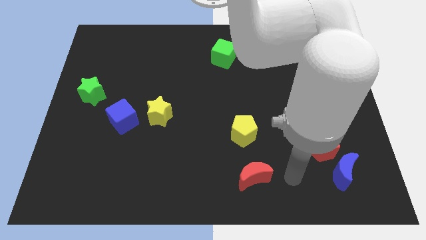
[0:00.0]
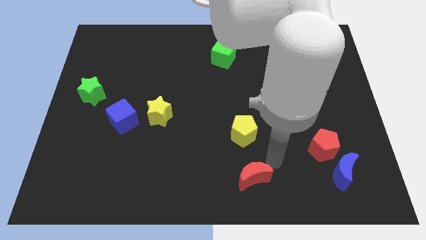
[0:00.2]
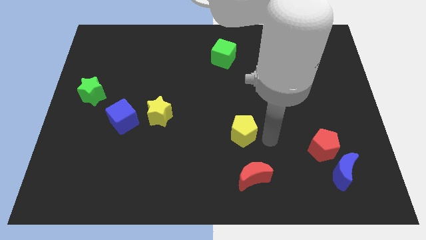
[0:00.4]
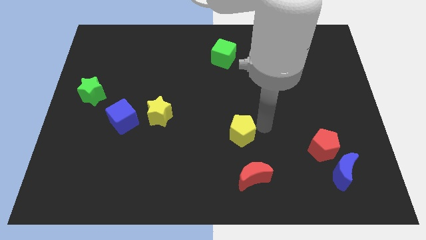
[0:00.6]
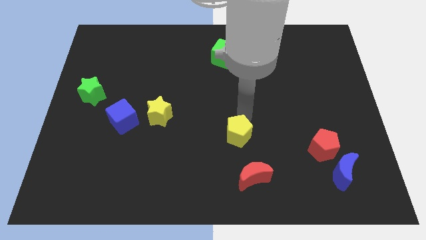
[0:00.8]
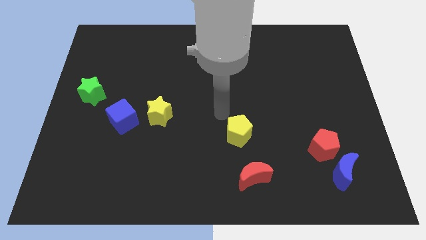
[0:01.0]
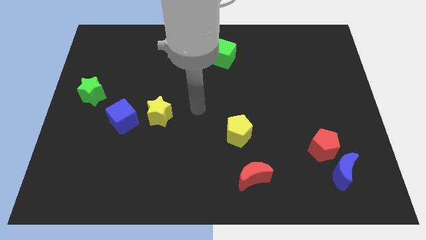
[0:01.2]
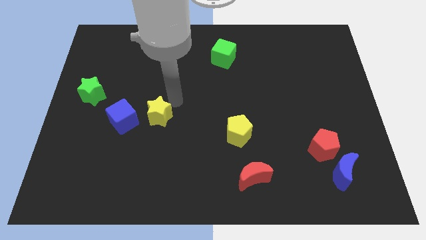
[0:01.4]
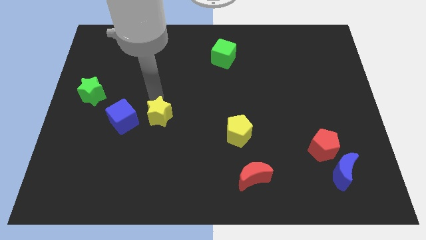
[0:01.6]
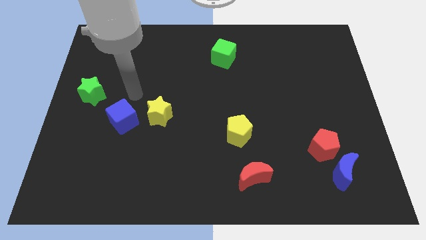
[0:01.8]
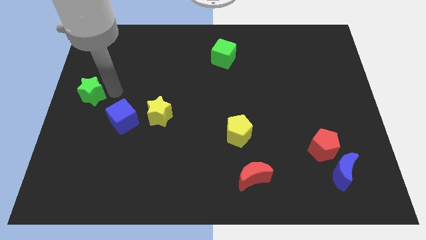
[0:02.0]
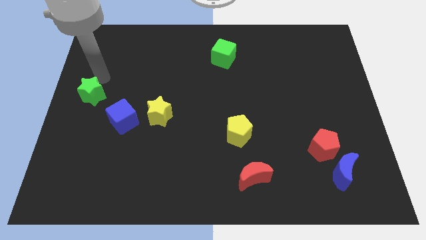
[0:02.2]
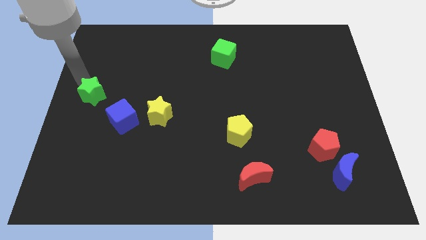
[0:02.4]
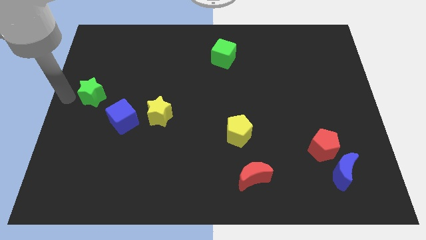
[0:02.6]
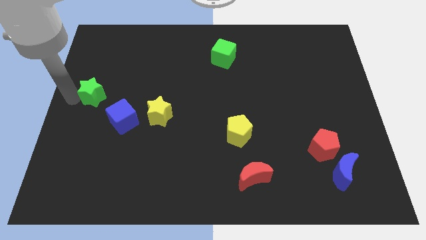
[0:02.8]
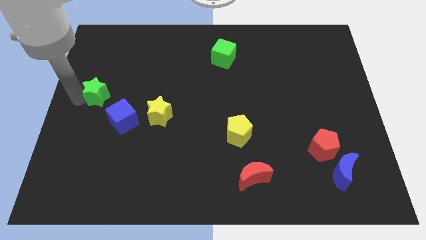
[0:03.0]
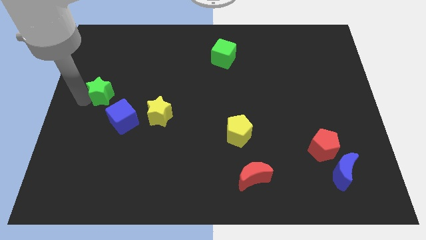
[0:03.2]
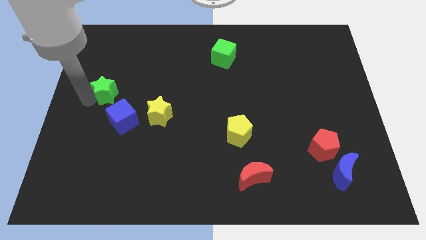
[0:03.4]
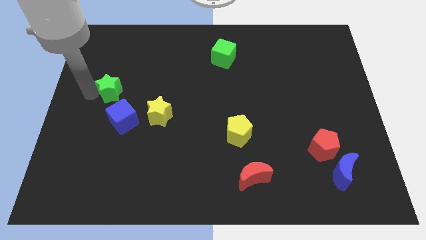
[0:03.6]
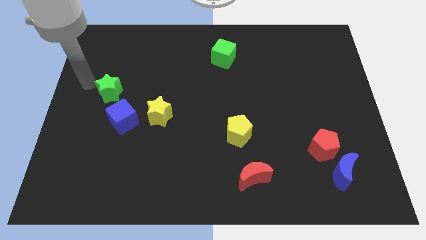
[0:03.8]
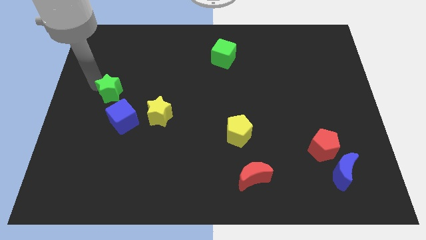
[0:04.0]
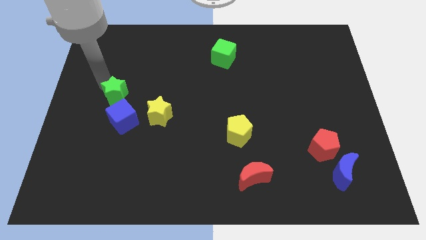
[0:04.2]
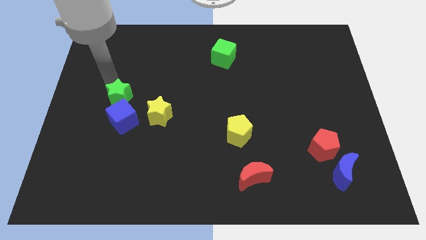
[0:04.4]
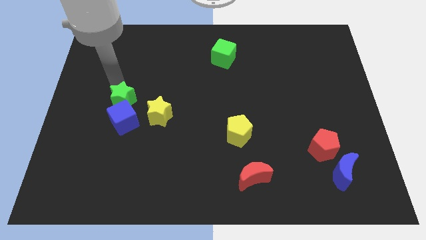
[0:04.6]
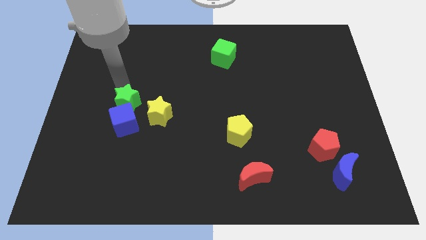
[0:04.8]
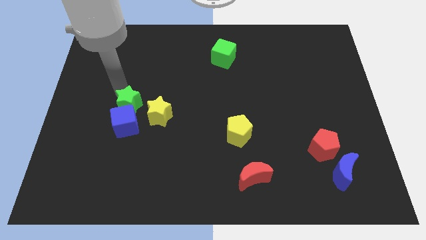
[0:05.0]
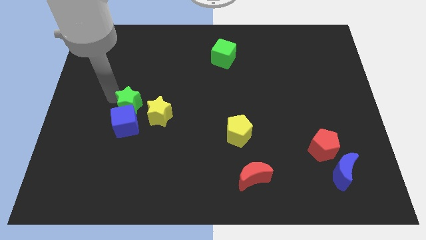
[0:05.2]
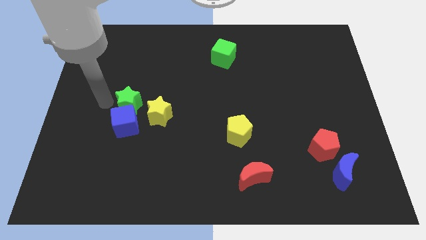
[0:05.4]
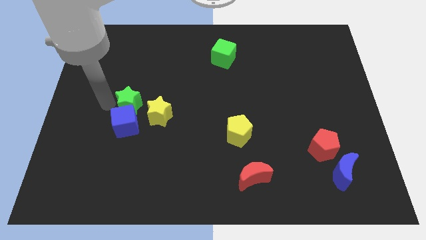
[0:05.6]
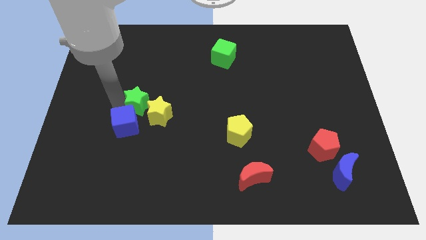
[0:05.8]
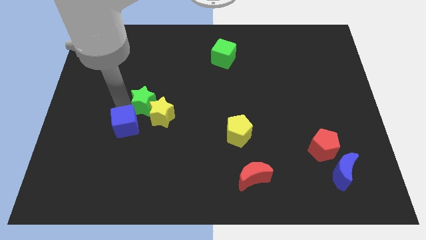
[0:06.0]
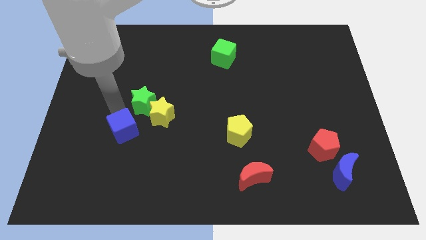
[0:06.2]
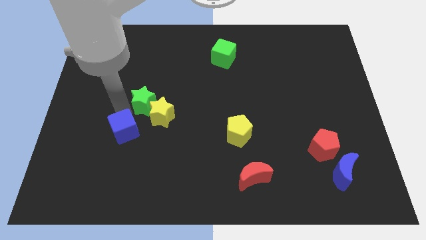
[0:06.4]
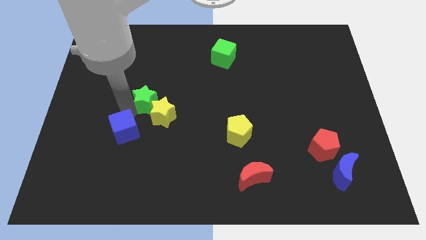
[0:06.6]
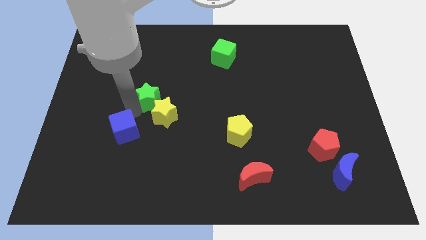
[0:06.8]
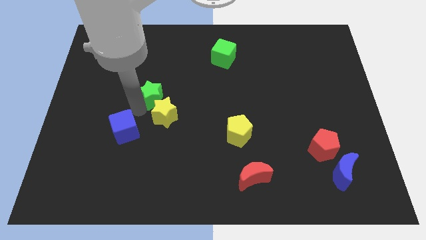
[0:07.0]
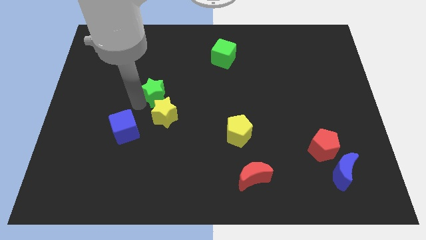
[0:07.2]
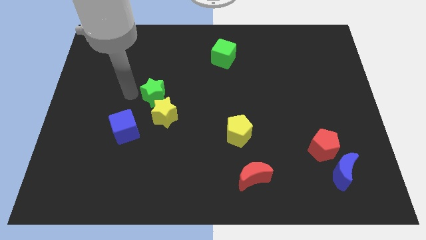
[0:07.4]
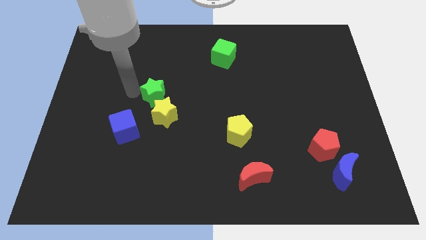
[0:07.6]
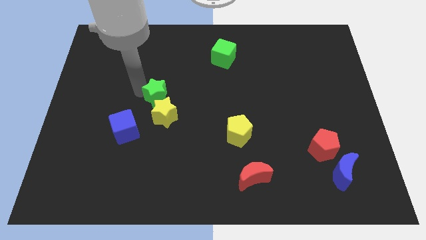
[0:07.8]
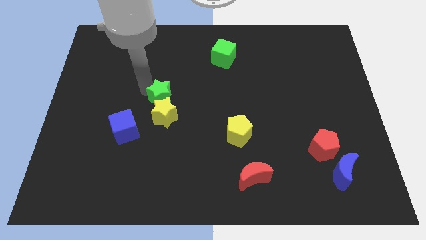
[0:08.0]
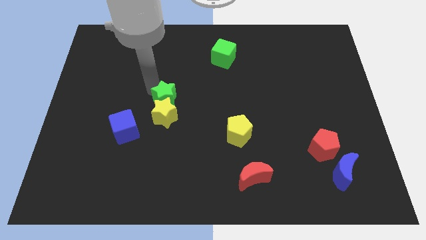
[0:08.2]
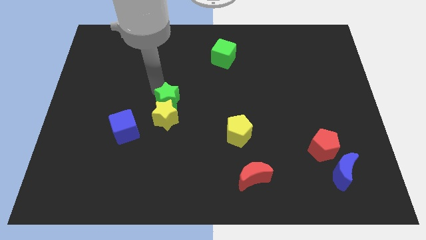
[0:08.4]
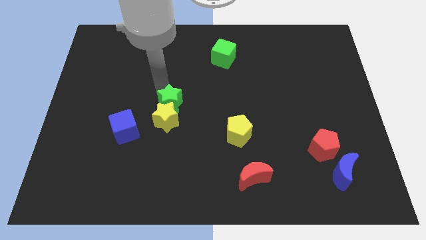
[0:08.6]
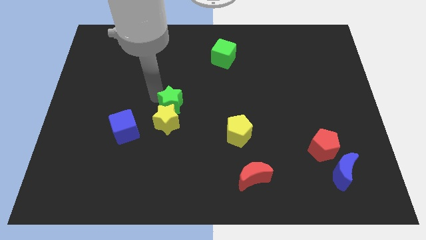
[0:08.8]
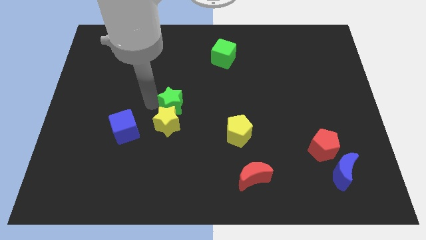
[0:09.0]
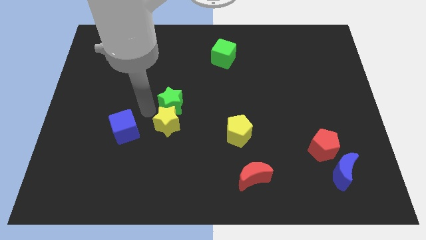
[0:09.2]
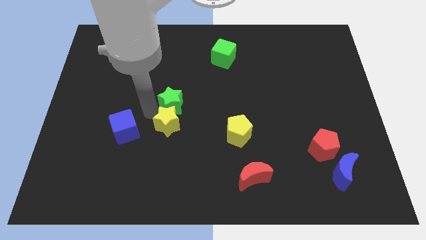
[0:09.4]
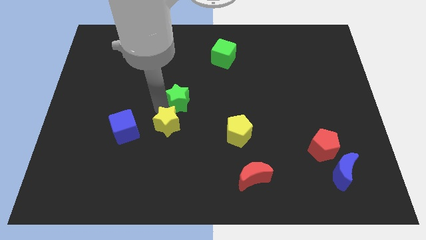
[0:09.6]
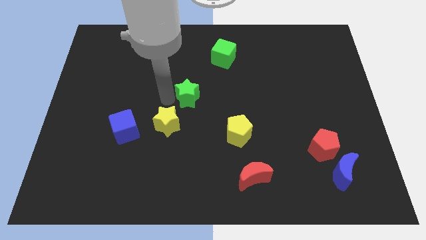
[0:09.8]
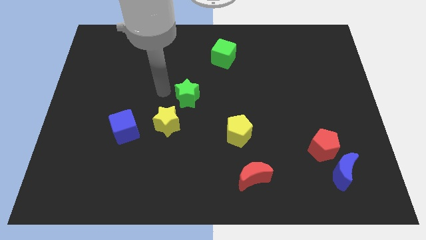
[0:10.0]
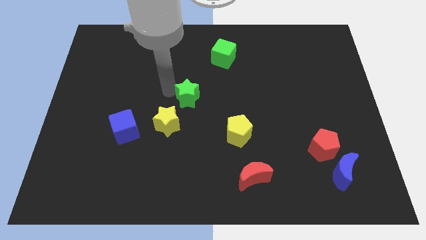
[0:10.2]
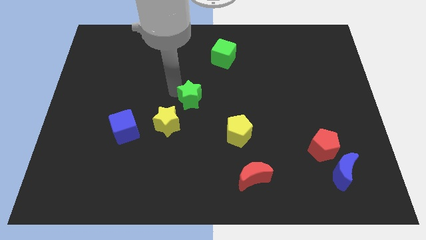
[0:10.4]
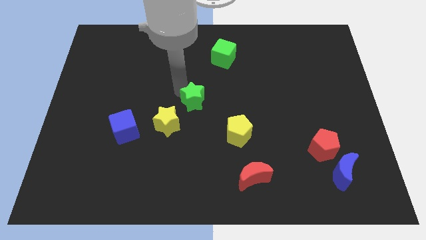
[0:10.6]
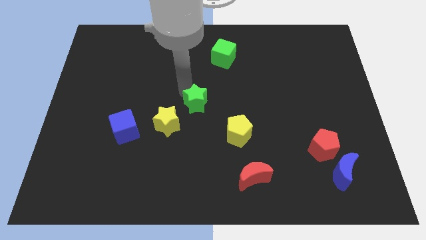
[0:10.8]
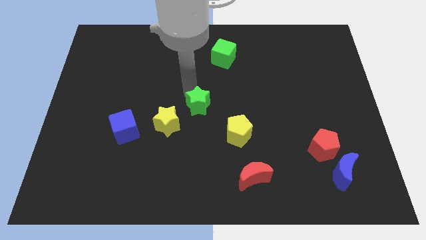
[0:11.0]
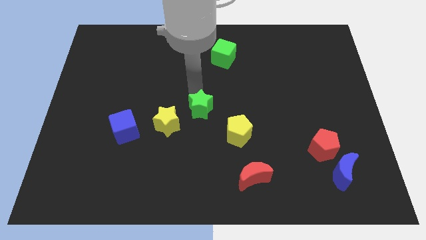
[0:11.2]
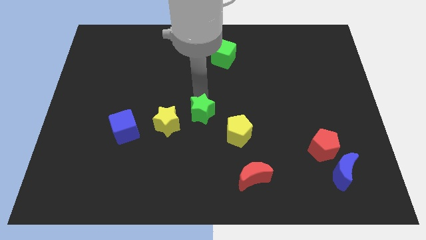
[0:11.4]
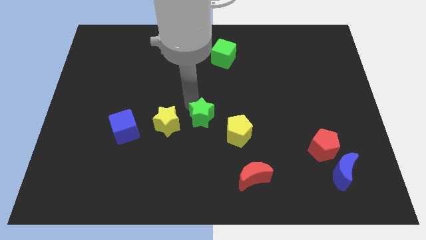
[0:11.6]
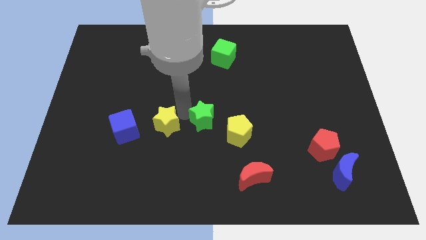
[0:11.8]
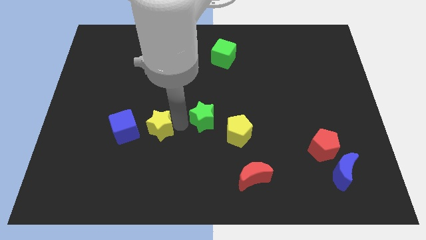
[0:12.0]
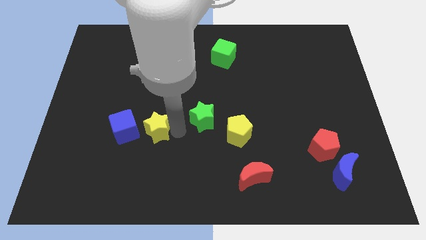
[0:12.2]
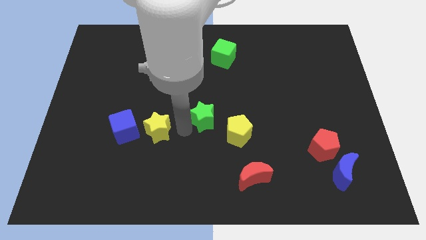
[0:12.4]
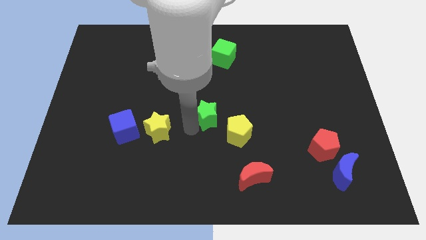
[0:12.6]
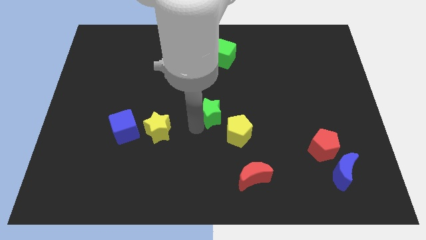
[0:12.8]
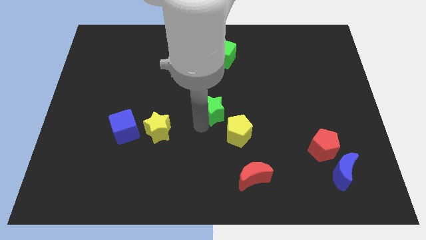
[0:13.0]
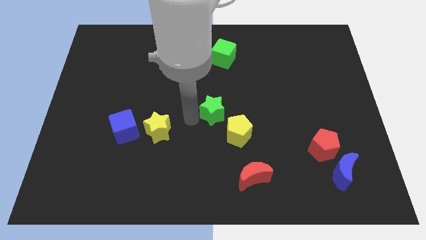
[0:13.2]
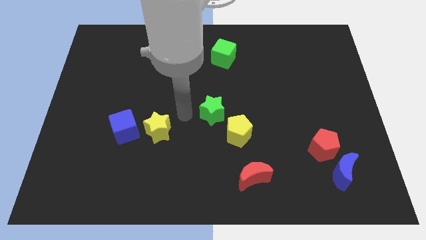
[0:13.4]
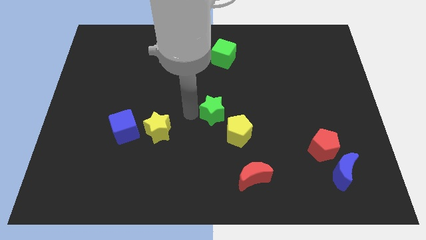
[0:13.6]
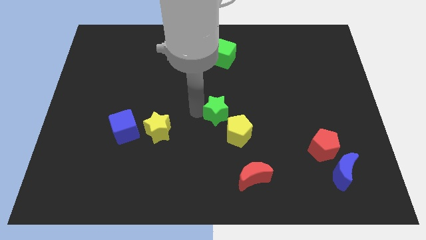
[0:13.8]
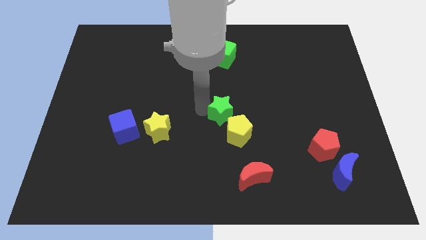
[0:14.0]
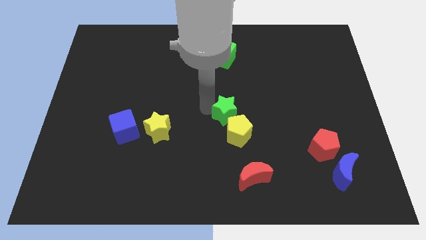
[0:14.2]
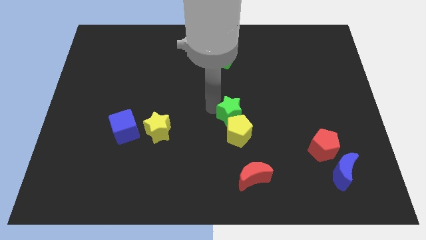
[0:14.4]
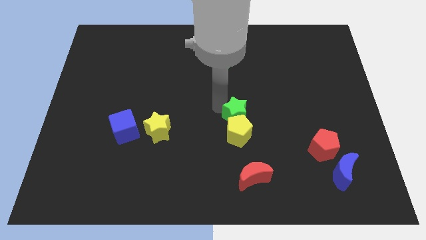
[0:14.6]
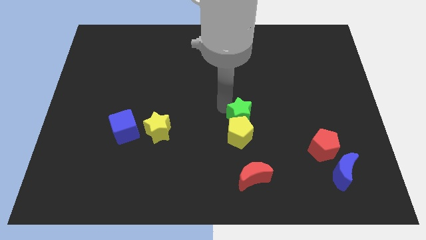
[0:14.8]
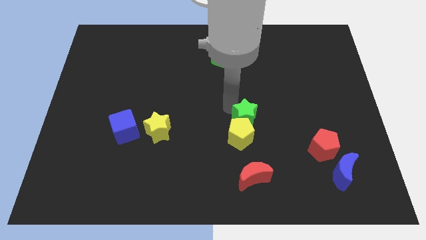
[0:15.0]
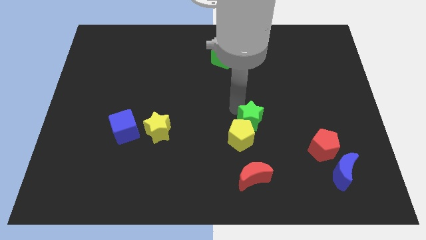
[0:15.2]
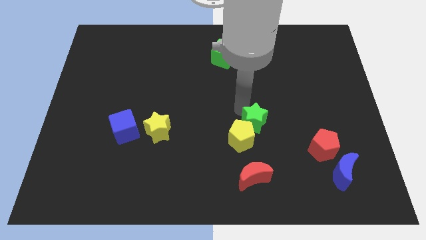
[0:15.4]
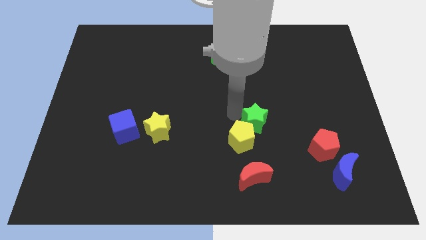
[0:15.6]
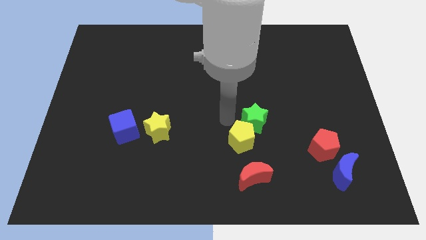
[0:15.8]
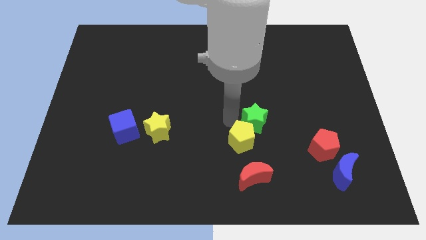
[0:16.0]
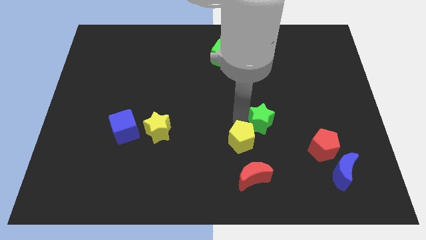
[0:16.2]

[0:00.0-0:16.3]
put the green star just right of the yellow pentagon
